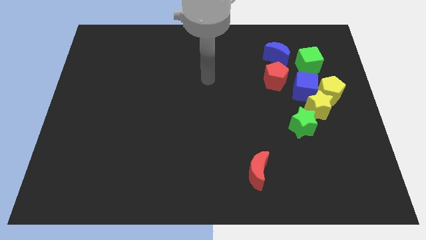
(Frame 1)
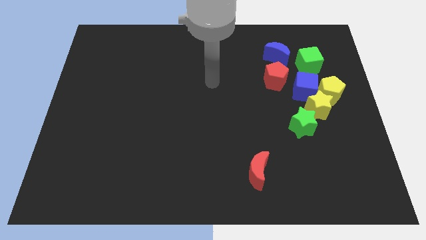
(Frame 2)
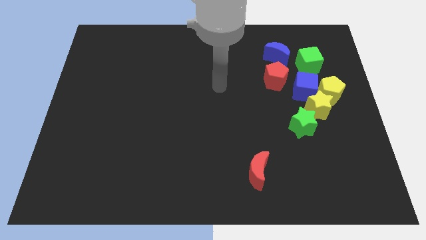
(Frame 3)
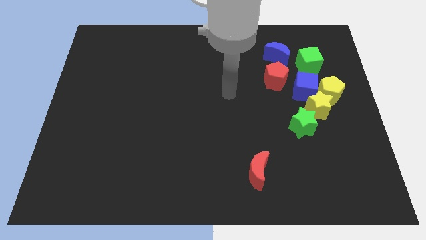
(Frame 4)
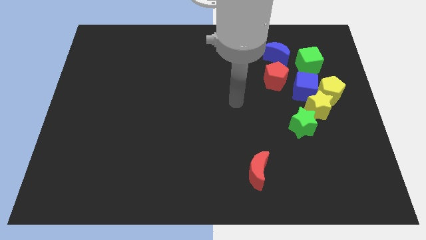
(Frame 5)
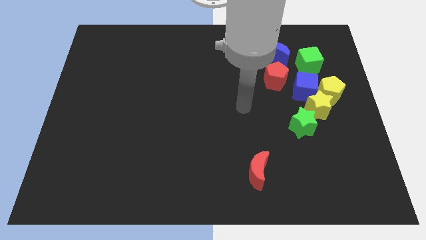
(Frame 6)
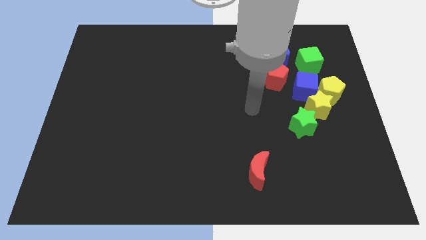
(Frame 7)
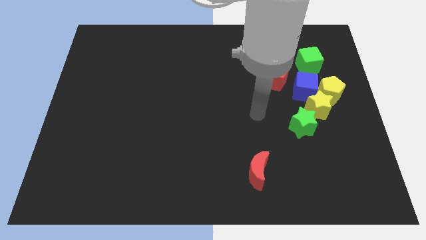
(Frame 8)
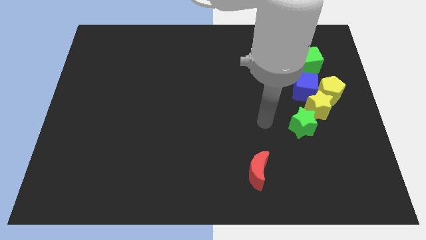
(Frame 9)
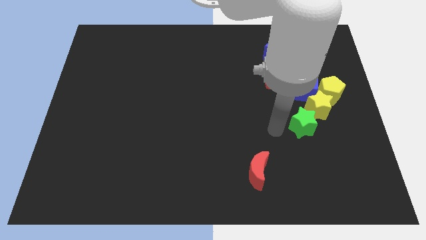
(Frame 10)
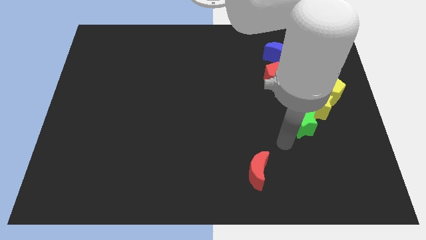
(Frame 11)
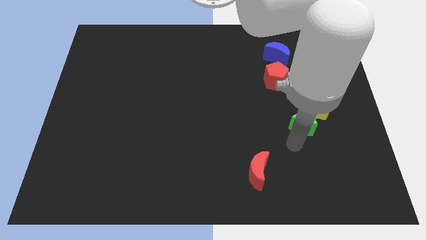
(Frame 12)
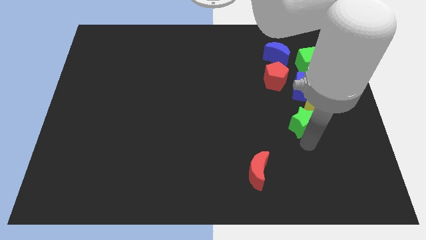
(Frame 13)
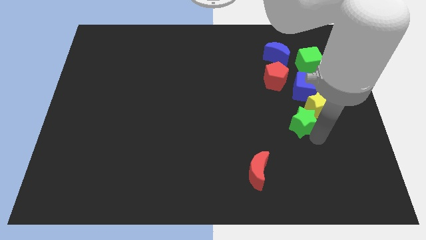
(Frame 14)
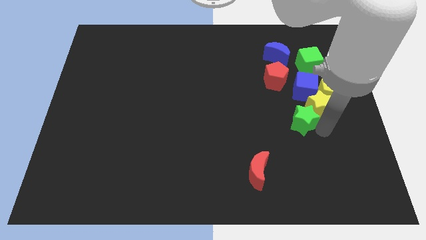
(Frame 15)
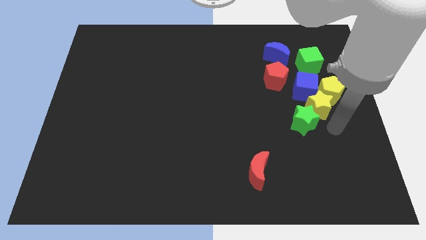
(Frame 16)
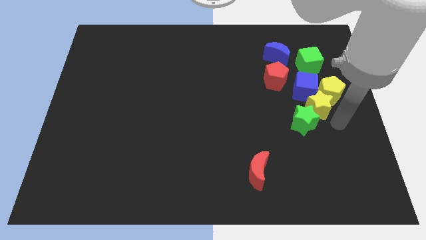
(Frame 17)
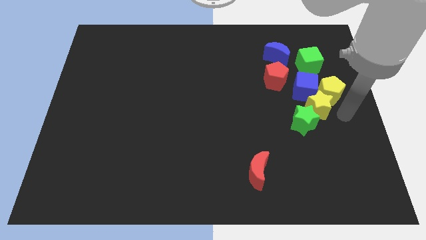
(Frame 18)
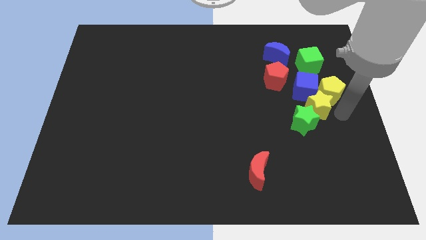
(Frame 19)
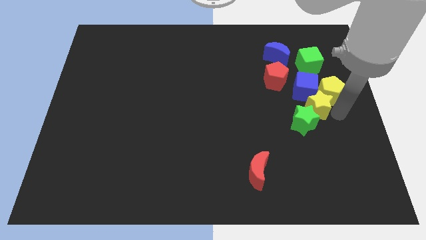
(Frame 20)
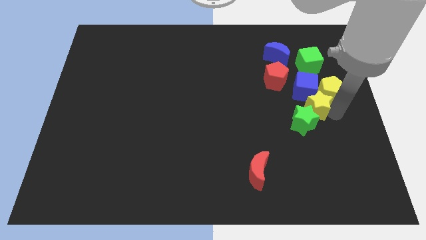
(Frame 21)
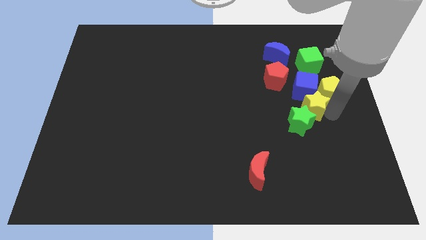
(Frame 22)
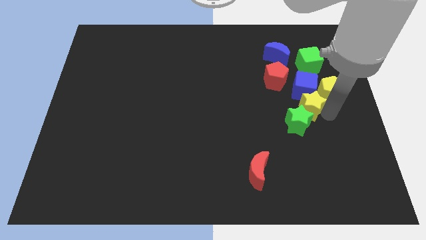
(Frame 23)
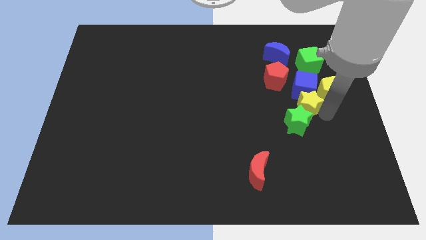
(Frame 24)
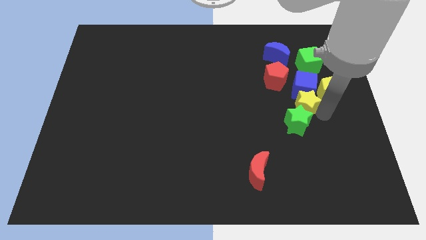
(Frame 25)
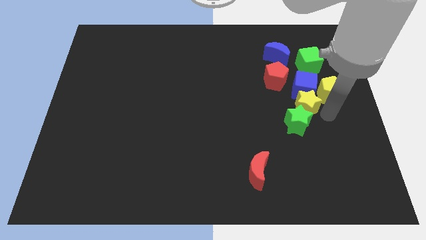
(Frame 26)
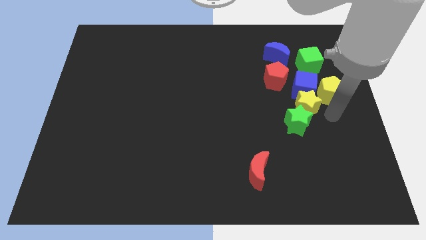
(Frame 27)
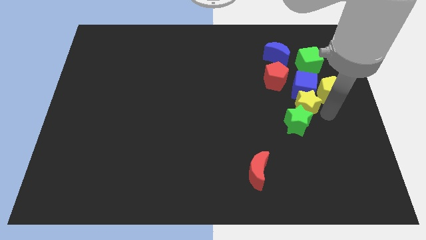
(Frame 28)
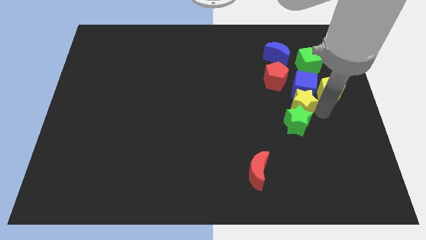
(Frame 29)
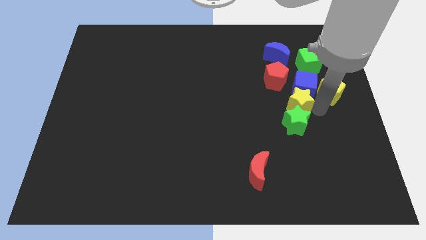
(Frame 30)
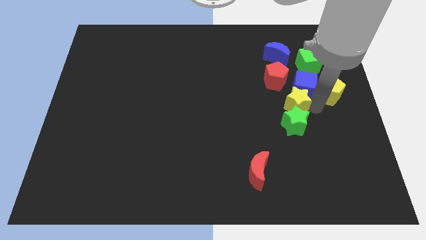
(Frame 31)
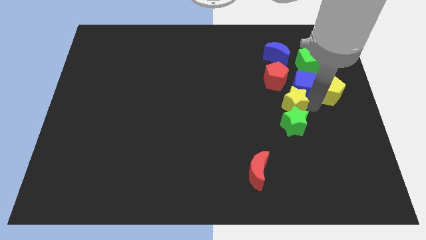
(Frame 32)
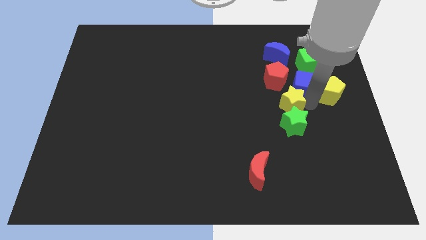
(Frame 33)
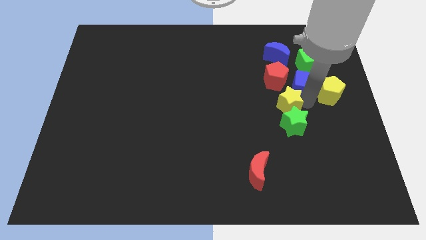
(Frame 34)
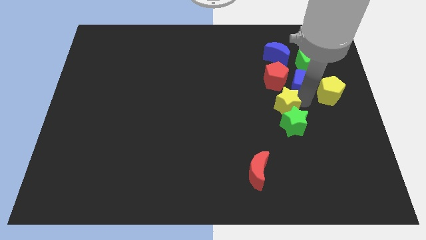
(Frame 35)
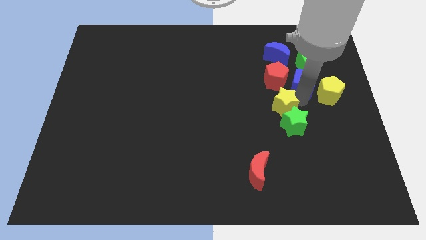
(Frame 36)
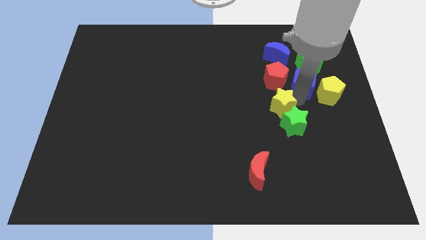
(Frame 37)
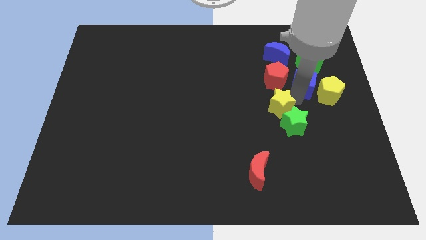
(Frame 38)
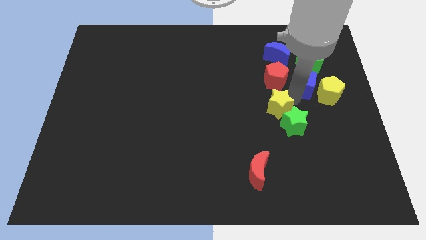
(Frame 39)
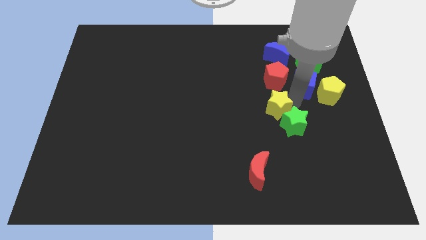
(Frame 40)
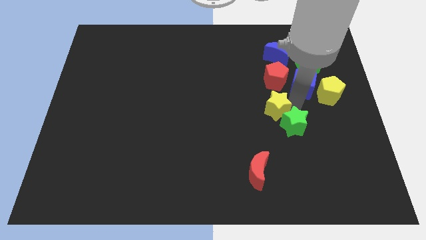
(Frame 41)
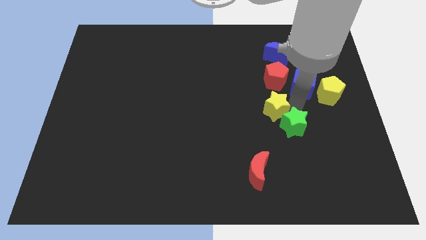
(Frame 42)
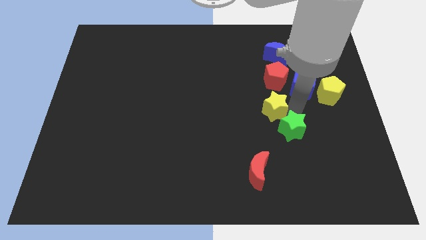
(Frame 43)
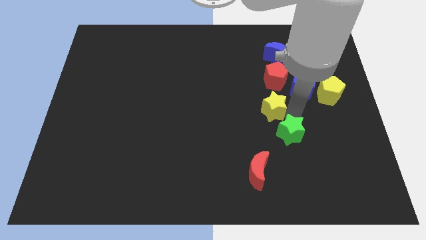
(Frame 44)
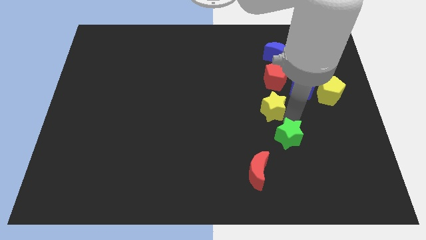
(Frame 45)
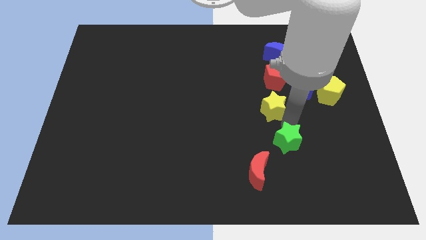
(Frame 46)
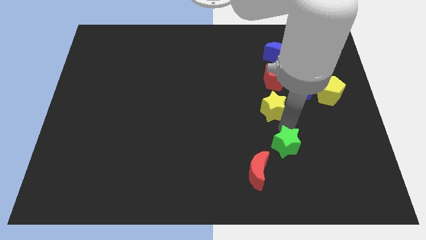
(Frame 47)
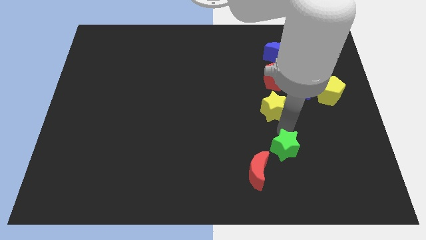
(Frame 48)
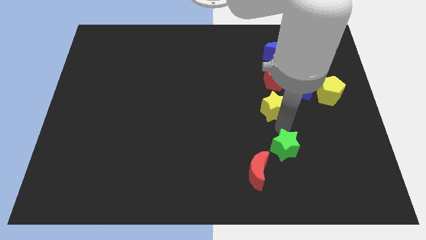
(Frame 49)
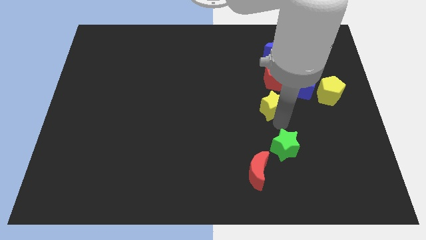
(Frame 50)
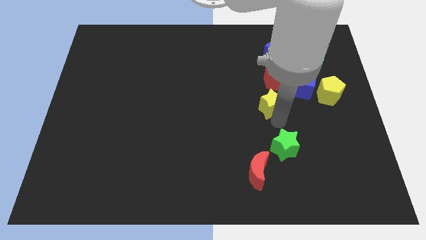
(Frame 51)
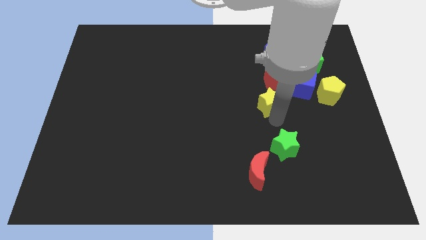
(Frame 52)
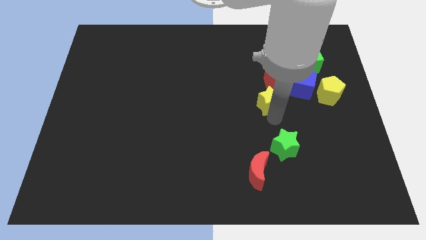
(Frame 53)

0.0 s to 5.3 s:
push the yellow star slightly diagonally upwards and to the left

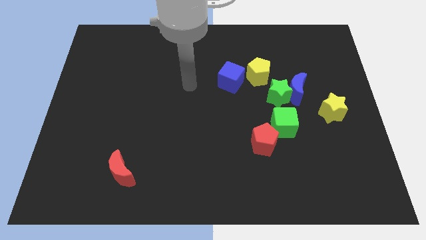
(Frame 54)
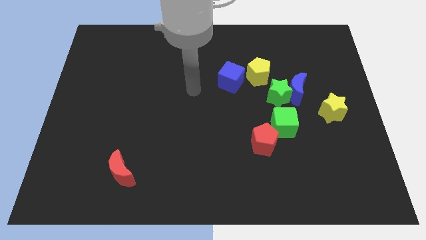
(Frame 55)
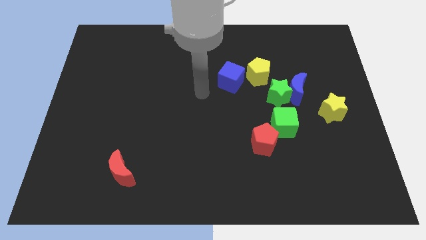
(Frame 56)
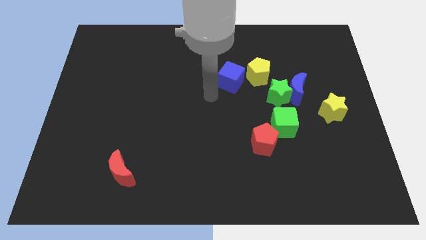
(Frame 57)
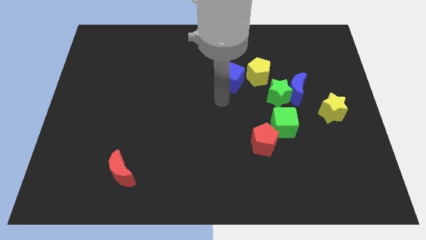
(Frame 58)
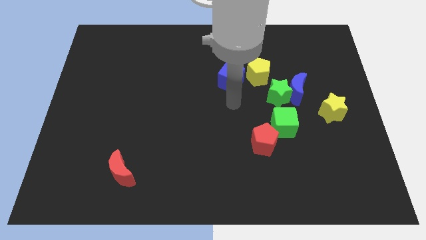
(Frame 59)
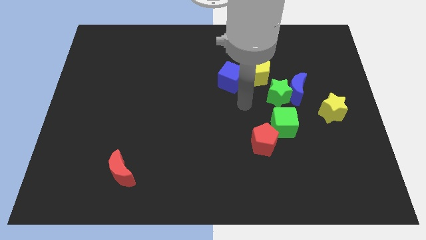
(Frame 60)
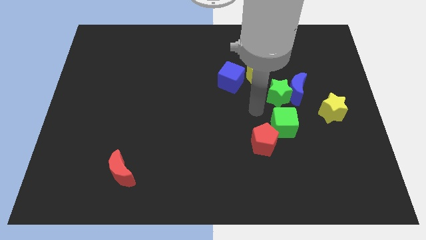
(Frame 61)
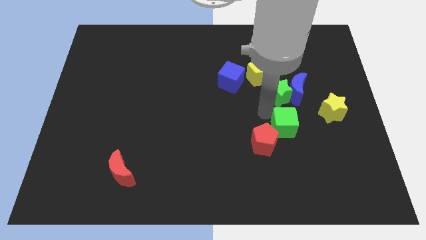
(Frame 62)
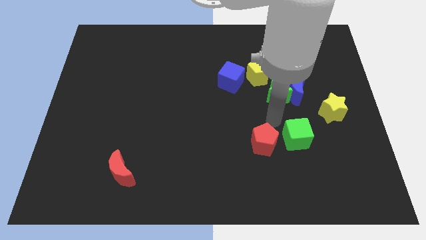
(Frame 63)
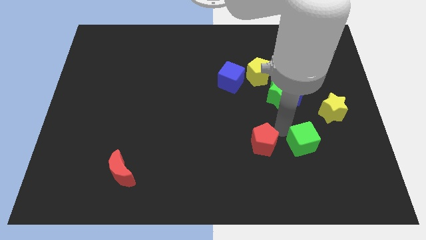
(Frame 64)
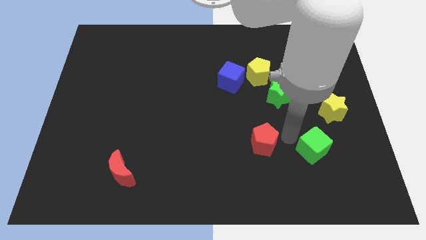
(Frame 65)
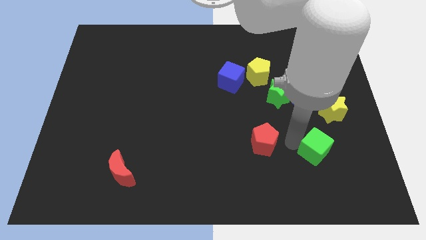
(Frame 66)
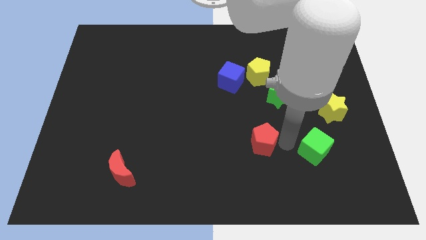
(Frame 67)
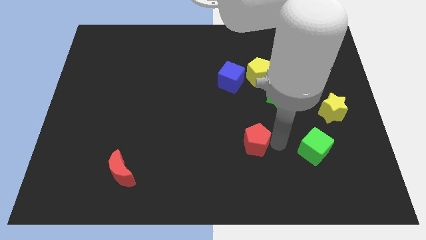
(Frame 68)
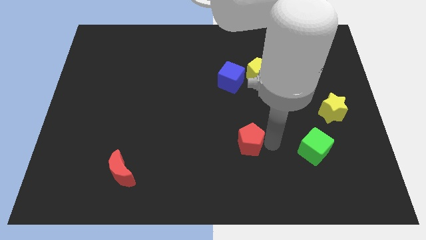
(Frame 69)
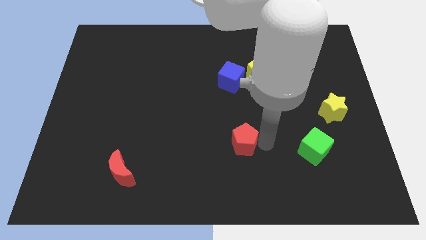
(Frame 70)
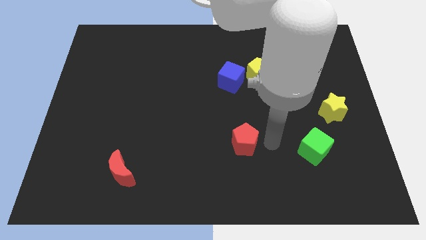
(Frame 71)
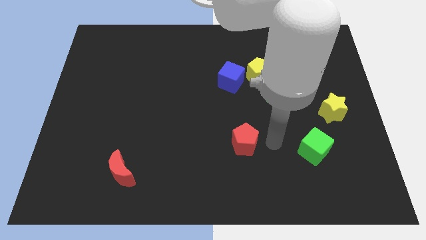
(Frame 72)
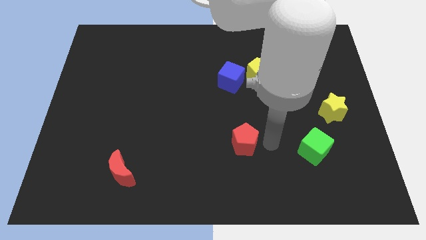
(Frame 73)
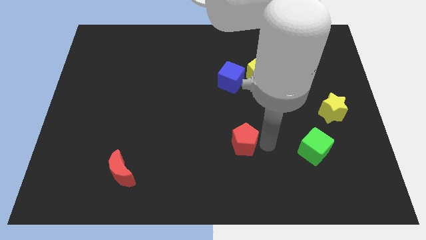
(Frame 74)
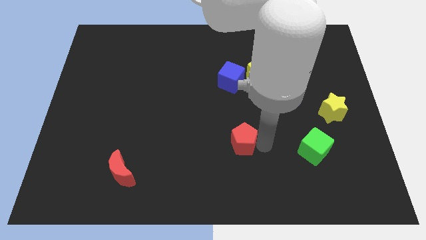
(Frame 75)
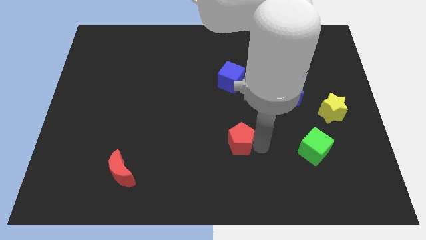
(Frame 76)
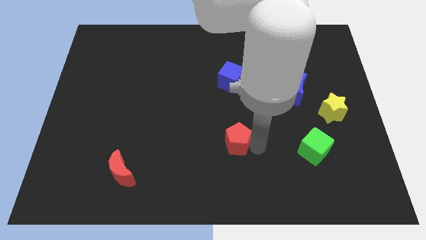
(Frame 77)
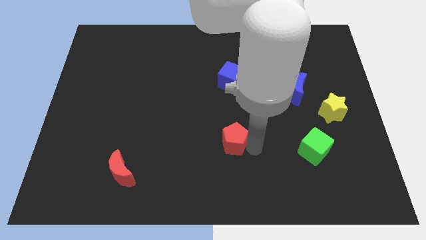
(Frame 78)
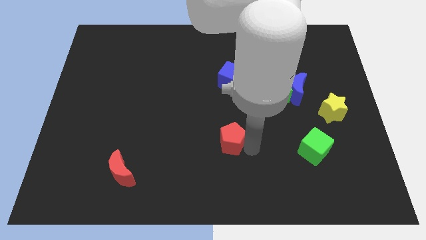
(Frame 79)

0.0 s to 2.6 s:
slide the red pentagon a little to the left

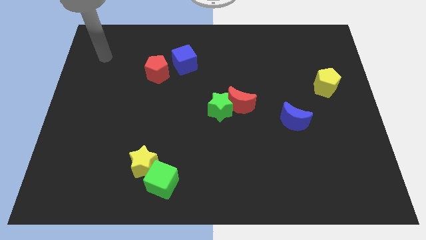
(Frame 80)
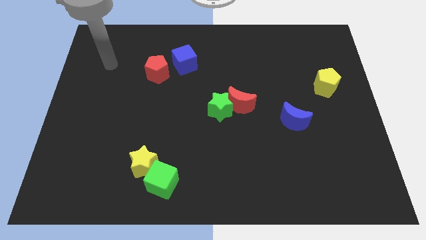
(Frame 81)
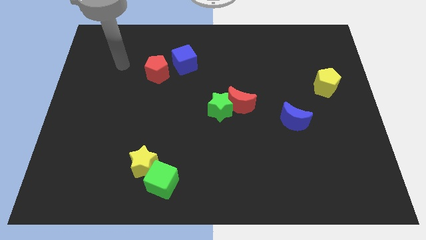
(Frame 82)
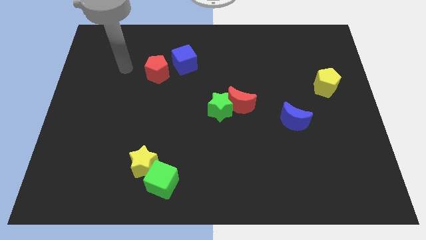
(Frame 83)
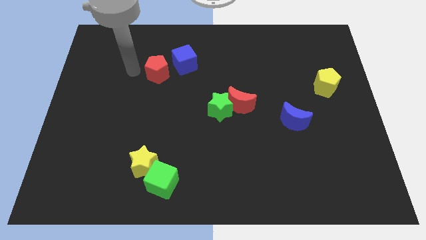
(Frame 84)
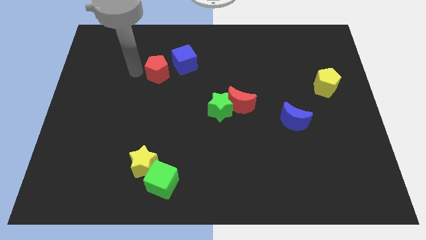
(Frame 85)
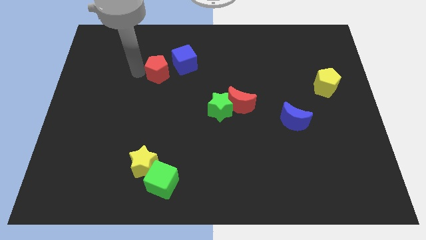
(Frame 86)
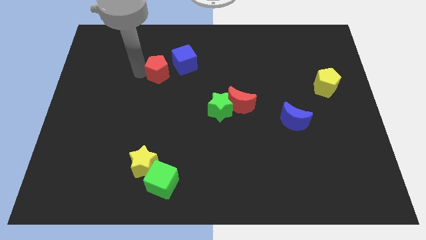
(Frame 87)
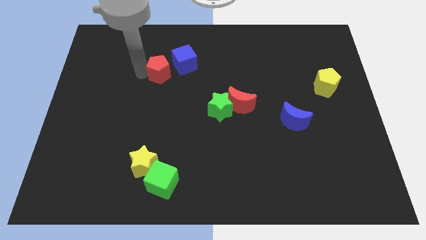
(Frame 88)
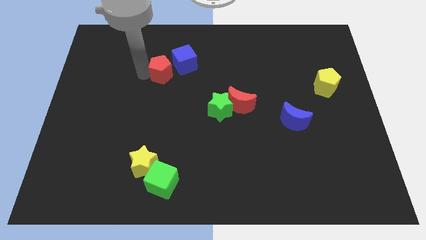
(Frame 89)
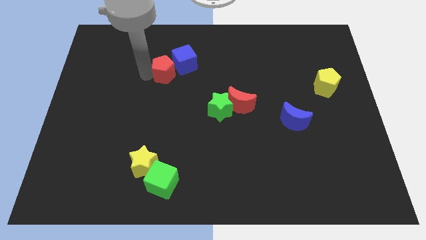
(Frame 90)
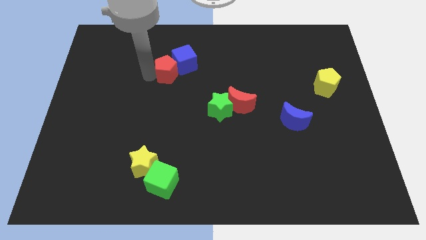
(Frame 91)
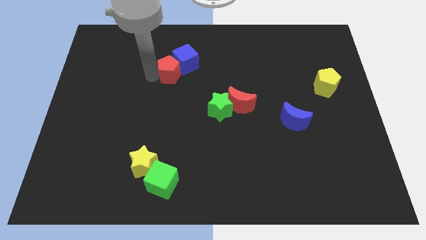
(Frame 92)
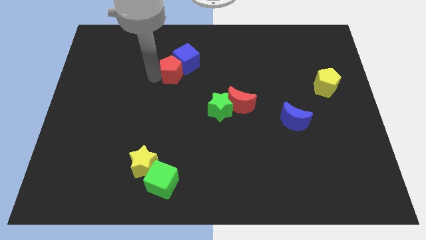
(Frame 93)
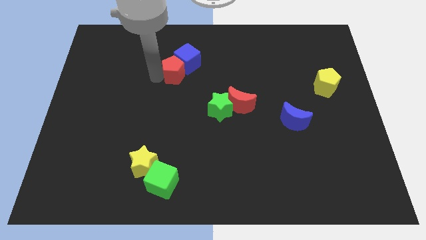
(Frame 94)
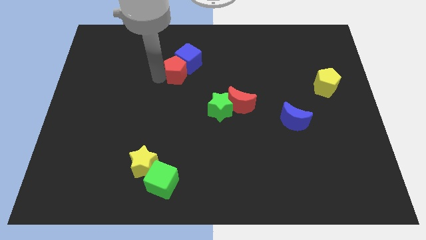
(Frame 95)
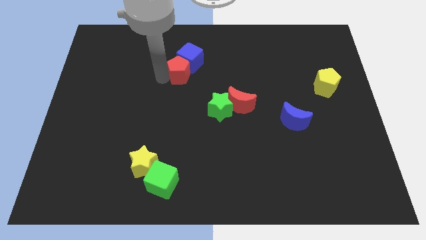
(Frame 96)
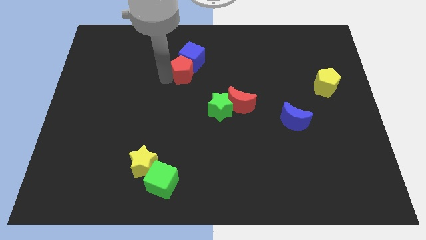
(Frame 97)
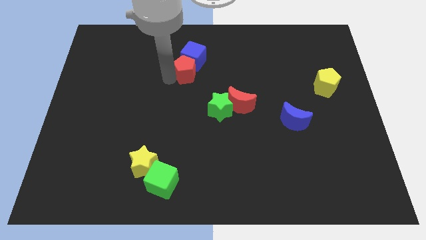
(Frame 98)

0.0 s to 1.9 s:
slightly move the red pentagon to the right
